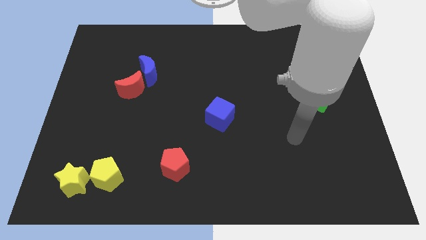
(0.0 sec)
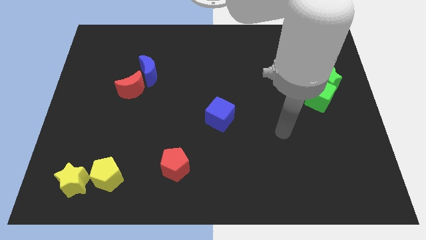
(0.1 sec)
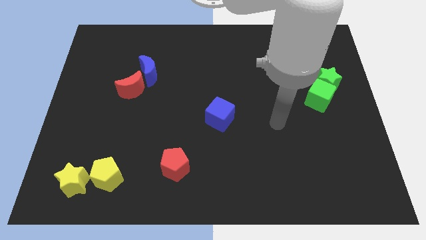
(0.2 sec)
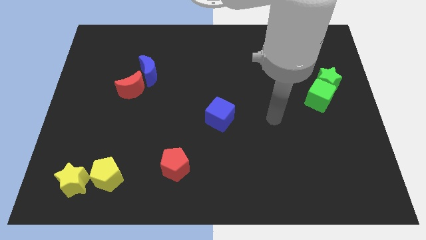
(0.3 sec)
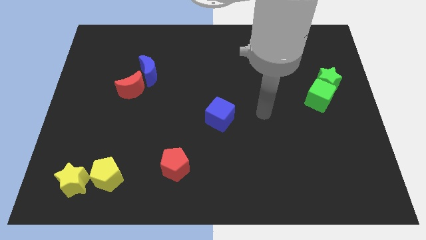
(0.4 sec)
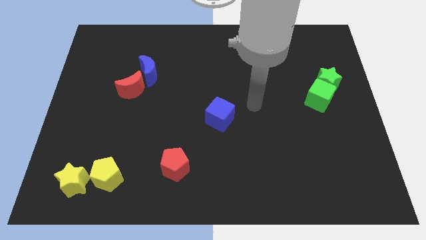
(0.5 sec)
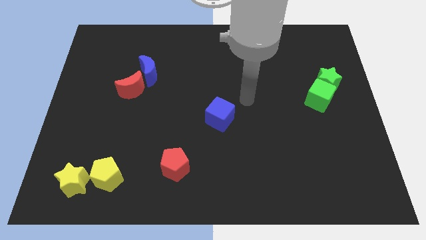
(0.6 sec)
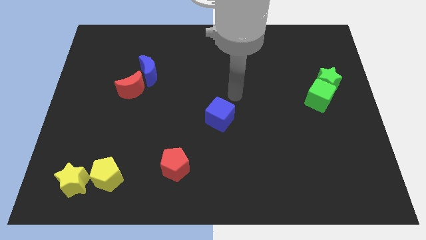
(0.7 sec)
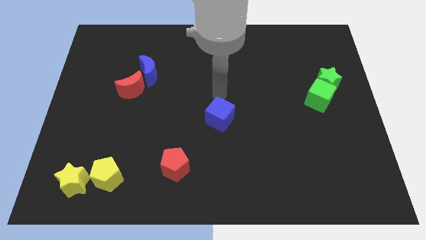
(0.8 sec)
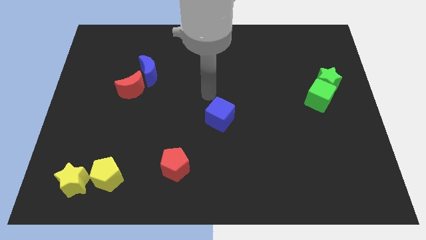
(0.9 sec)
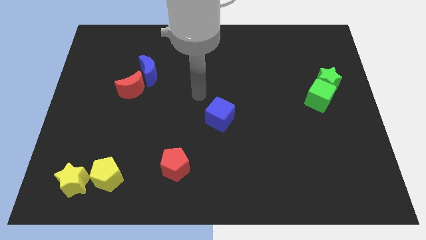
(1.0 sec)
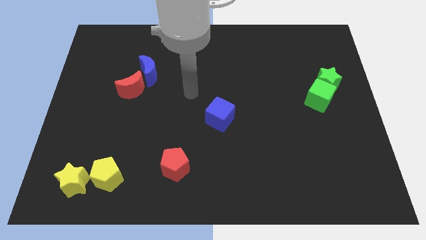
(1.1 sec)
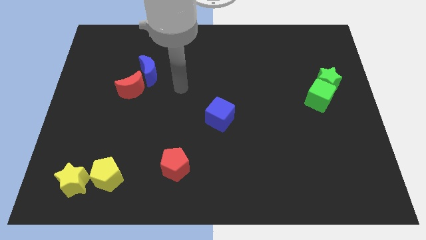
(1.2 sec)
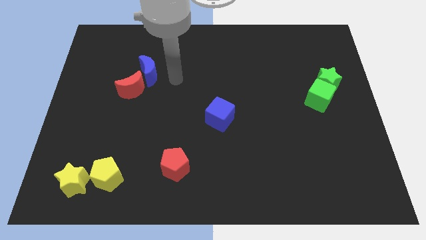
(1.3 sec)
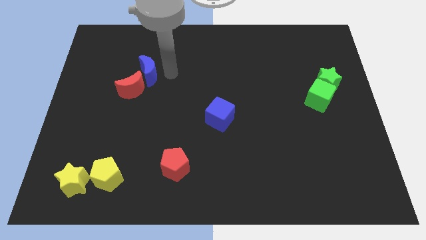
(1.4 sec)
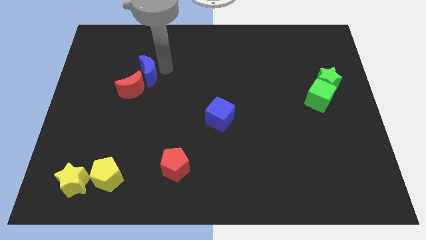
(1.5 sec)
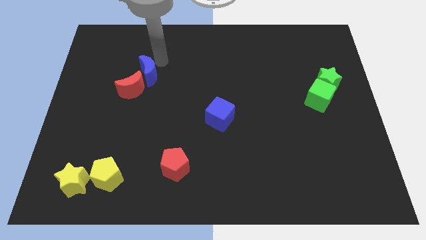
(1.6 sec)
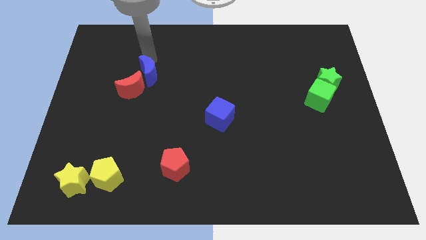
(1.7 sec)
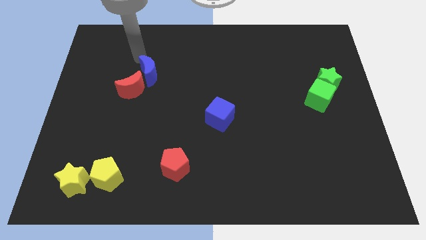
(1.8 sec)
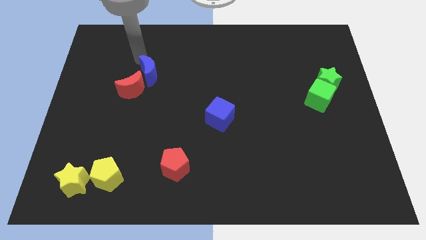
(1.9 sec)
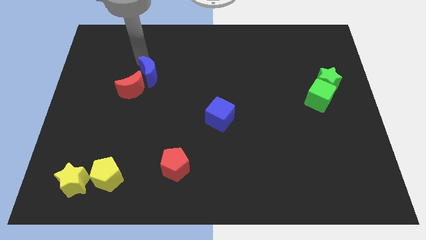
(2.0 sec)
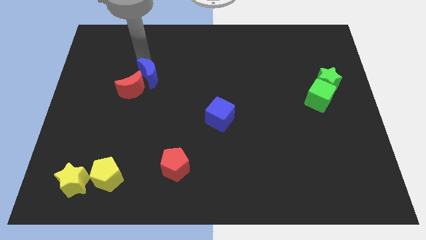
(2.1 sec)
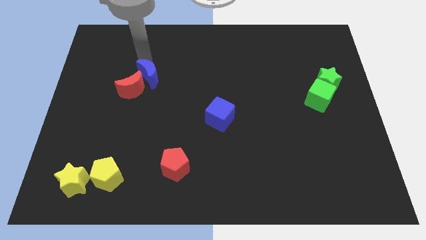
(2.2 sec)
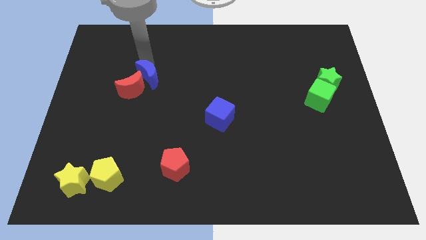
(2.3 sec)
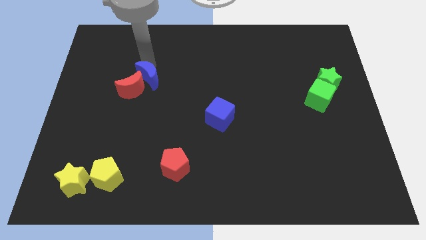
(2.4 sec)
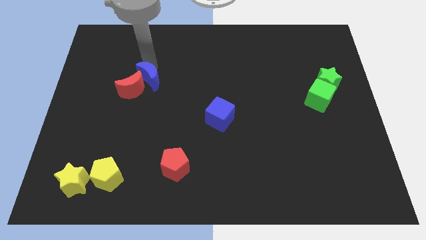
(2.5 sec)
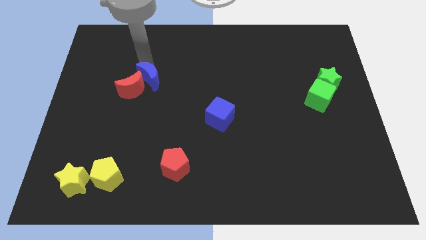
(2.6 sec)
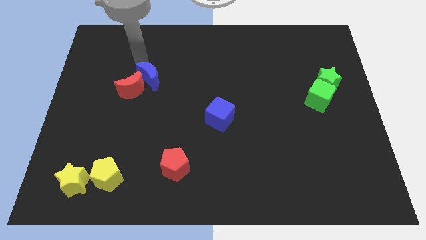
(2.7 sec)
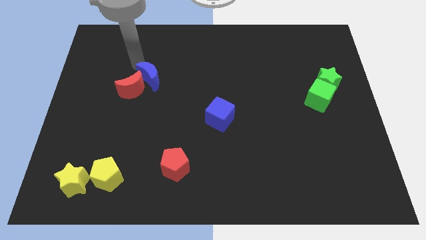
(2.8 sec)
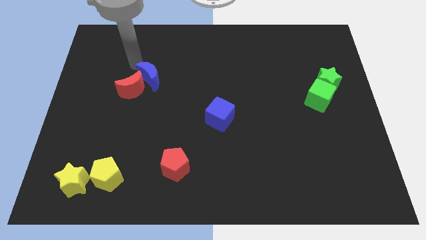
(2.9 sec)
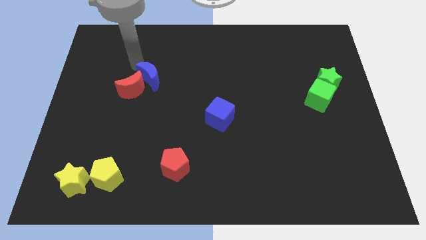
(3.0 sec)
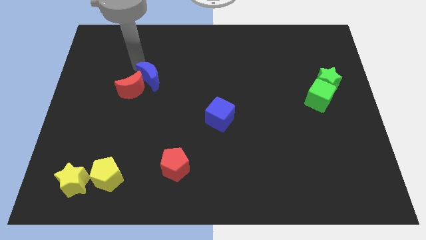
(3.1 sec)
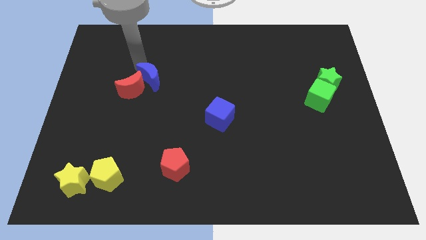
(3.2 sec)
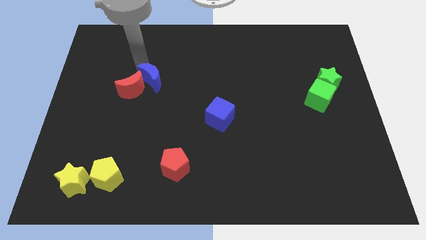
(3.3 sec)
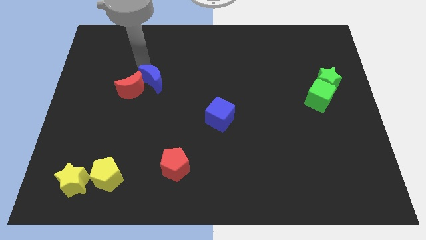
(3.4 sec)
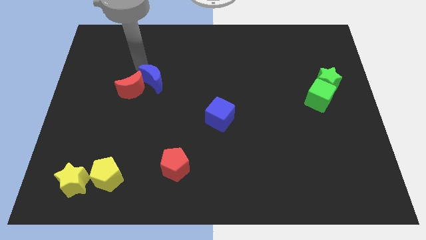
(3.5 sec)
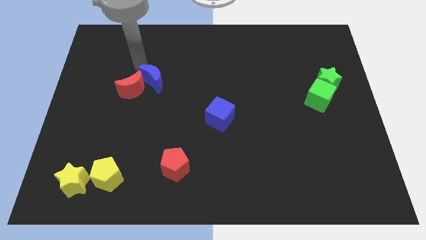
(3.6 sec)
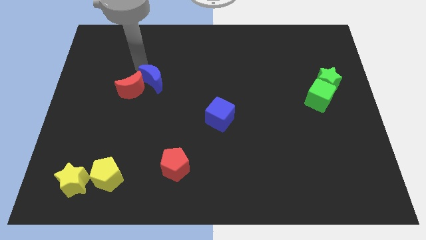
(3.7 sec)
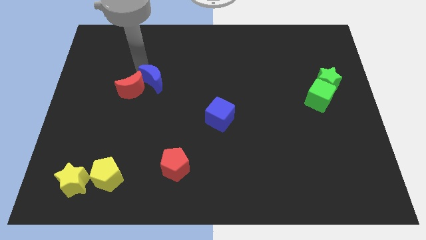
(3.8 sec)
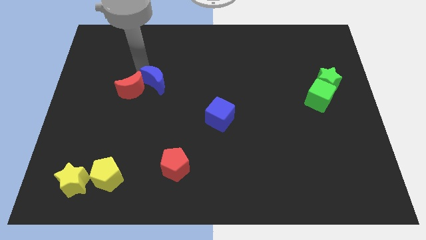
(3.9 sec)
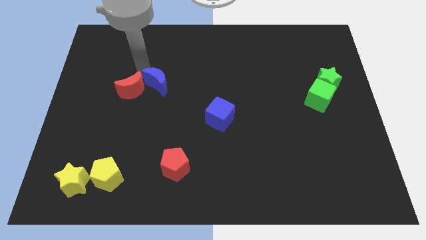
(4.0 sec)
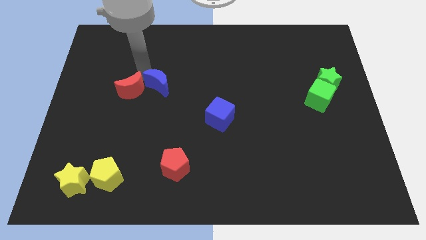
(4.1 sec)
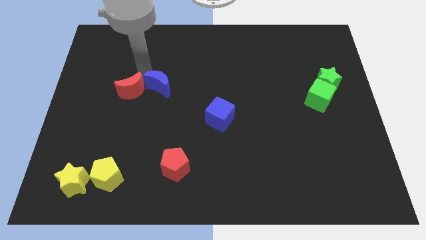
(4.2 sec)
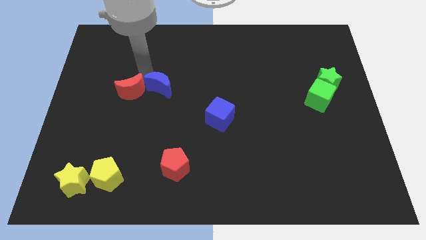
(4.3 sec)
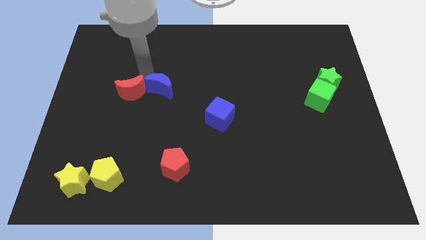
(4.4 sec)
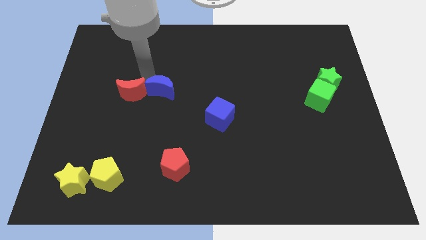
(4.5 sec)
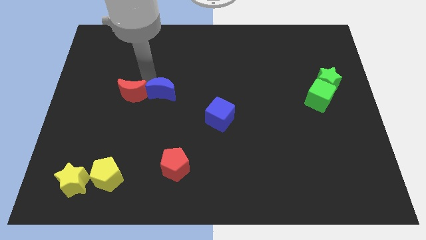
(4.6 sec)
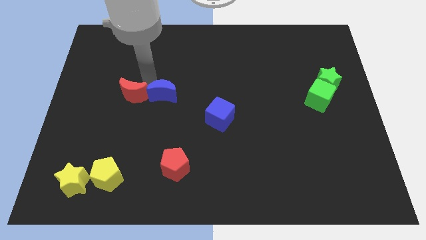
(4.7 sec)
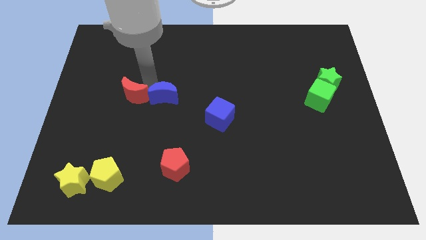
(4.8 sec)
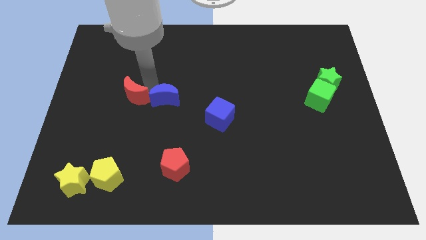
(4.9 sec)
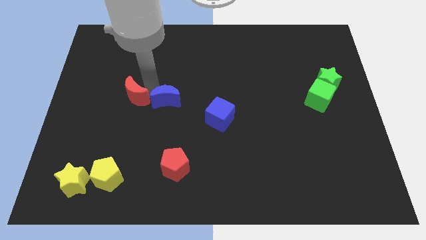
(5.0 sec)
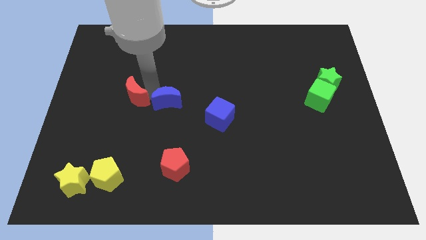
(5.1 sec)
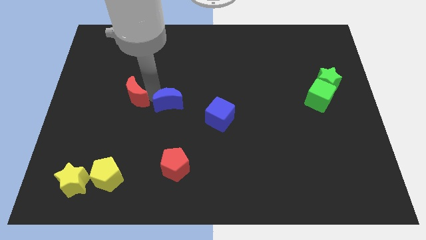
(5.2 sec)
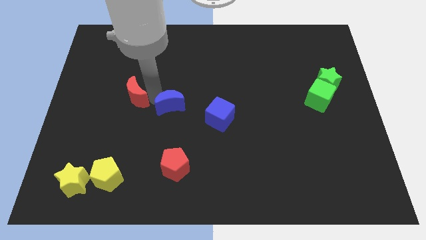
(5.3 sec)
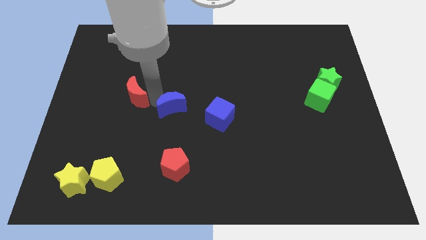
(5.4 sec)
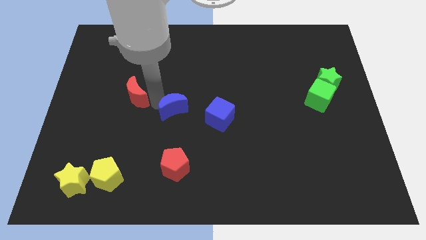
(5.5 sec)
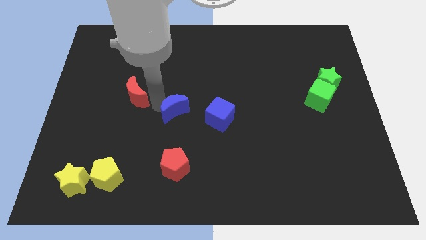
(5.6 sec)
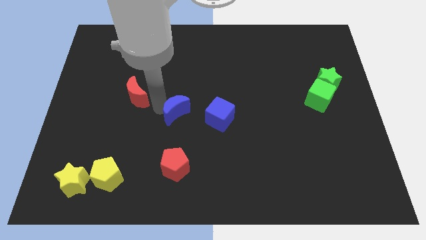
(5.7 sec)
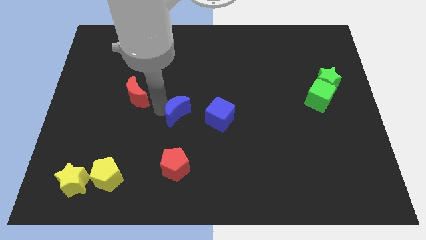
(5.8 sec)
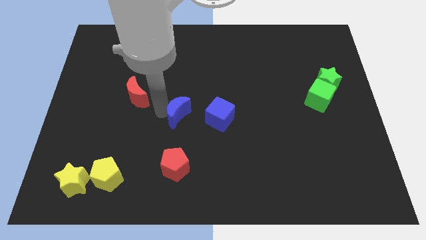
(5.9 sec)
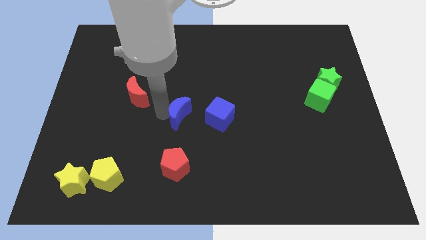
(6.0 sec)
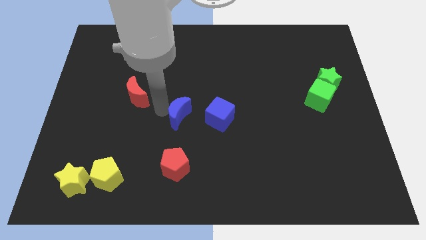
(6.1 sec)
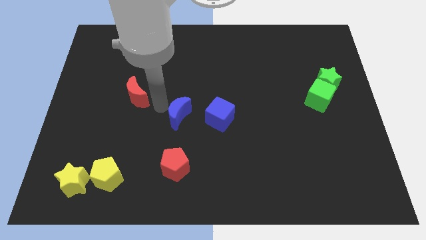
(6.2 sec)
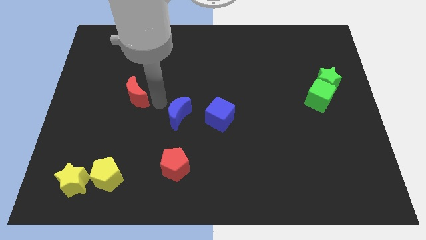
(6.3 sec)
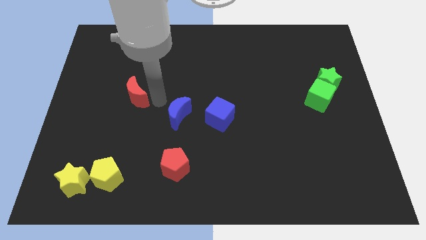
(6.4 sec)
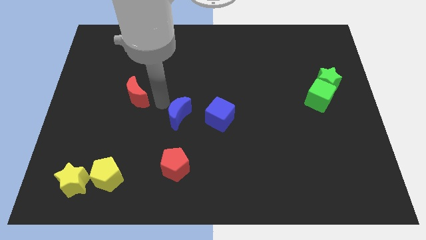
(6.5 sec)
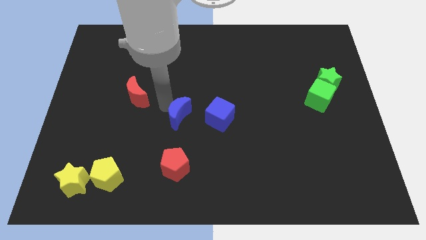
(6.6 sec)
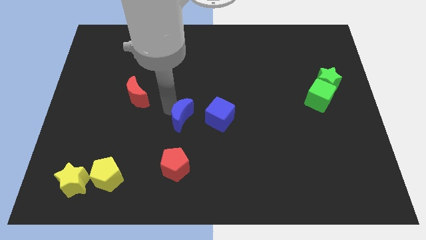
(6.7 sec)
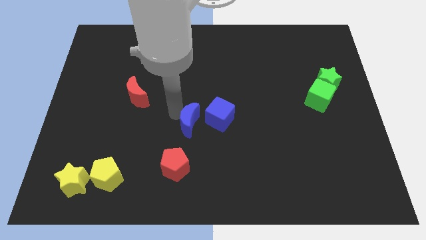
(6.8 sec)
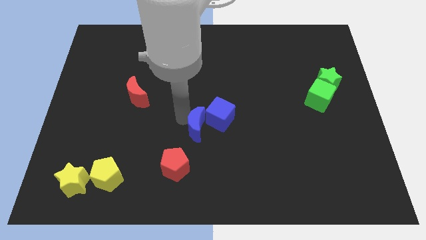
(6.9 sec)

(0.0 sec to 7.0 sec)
move the blue moon downwards and right diagonally

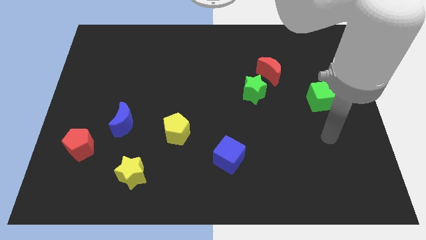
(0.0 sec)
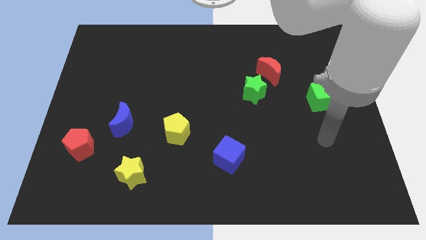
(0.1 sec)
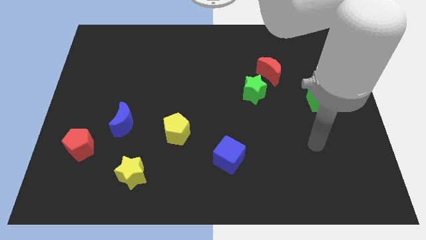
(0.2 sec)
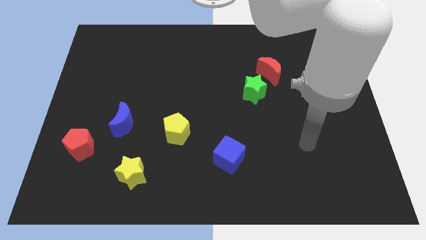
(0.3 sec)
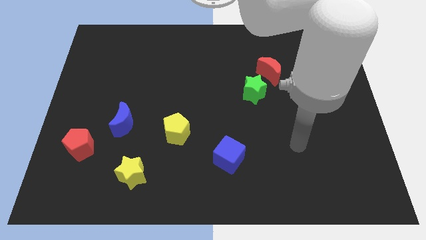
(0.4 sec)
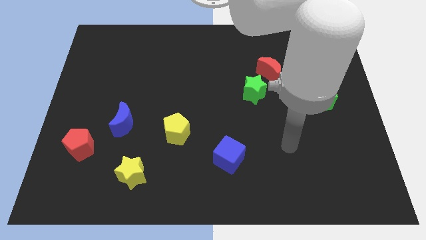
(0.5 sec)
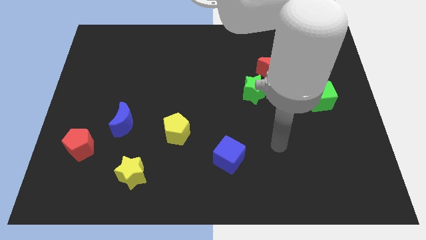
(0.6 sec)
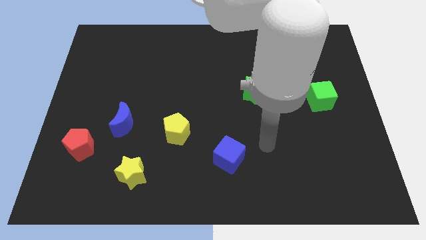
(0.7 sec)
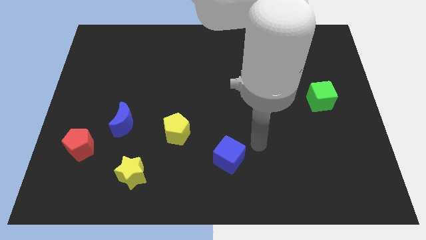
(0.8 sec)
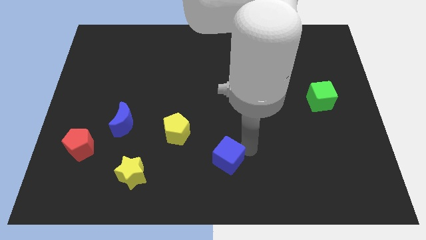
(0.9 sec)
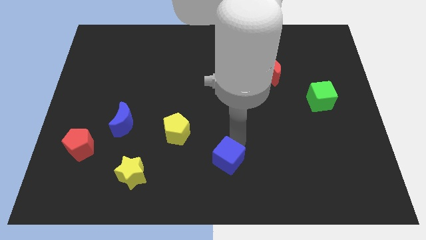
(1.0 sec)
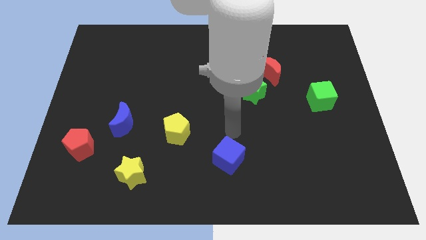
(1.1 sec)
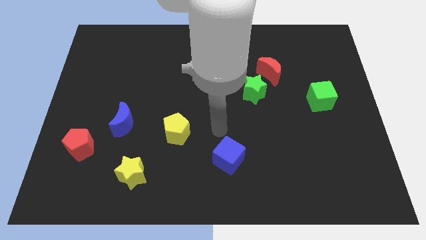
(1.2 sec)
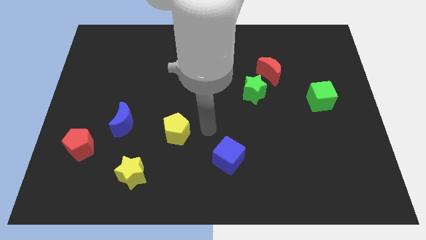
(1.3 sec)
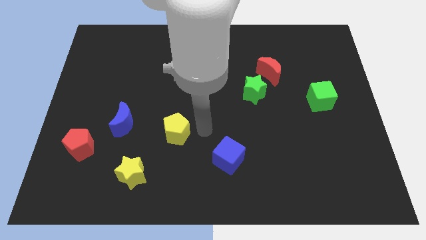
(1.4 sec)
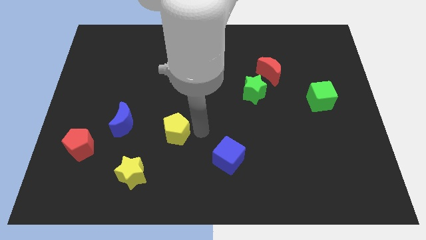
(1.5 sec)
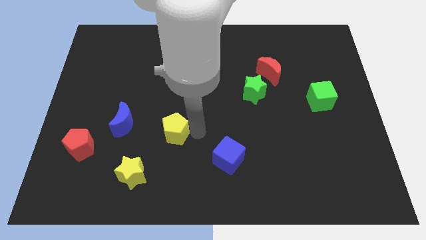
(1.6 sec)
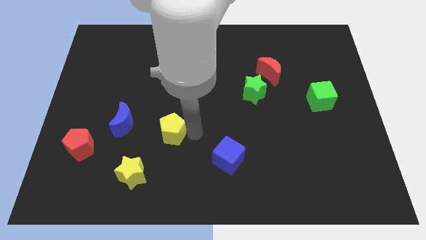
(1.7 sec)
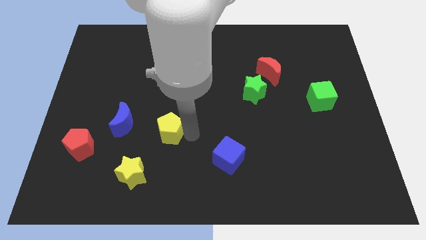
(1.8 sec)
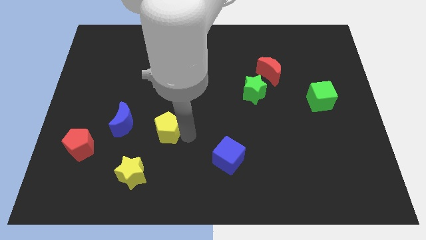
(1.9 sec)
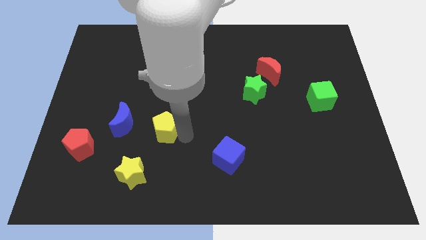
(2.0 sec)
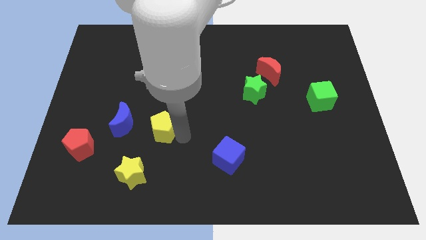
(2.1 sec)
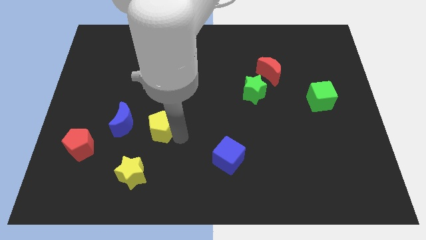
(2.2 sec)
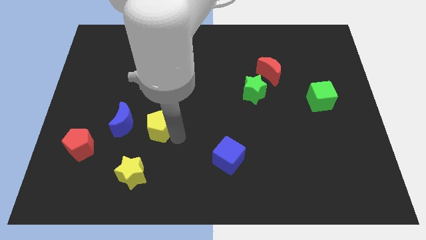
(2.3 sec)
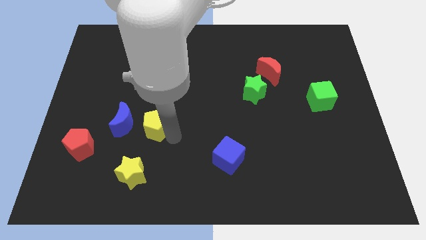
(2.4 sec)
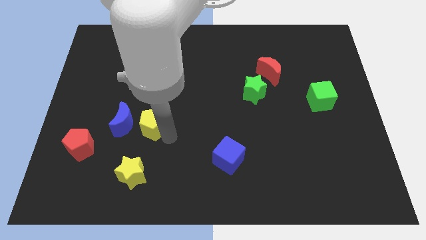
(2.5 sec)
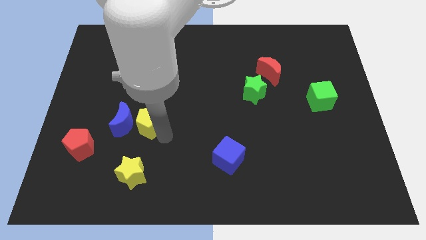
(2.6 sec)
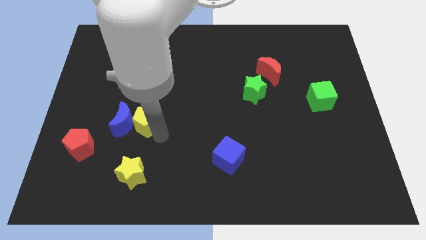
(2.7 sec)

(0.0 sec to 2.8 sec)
slightly move the yellow pentagon to the left
